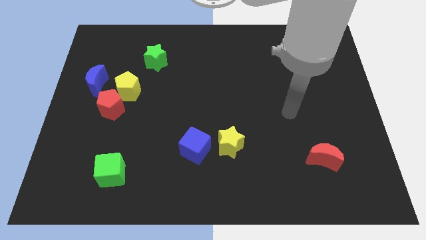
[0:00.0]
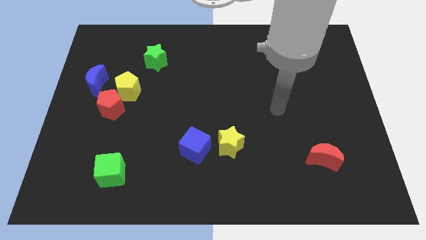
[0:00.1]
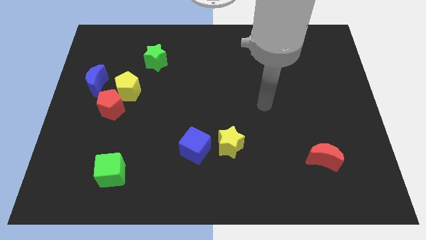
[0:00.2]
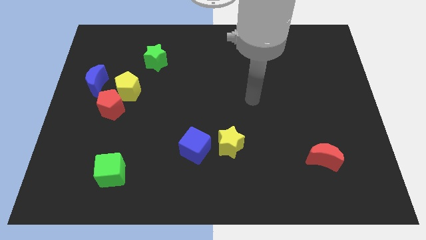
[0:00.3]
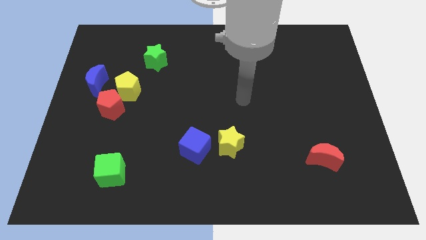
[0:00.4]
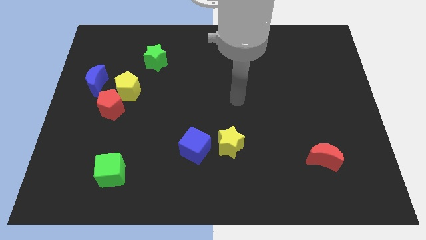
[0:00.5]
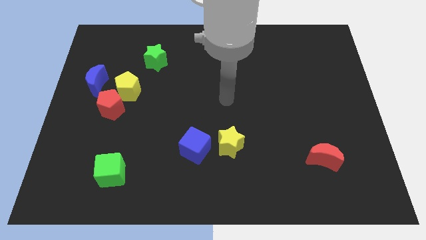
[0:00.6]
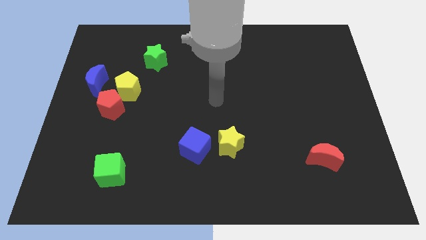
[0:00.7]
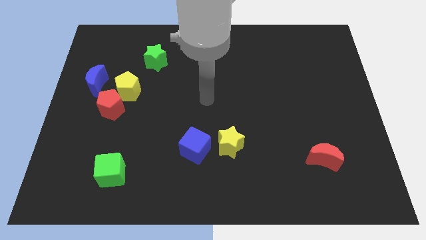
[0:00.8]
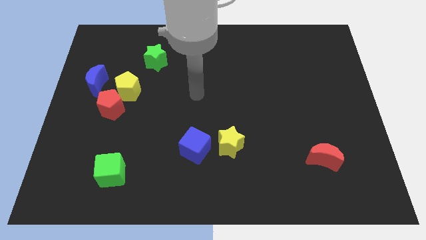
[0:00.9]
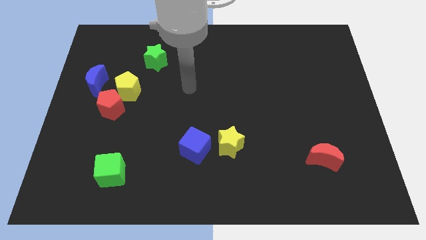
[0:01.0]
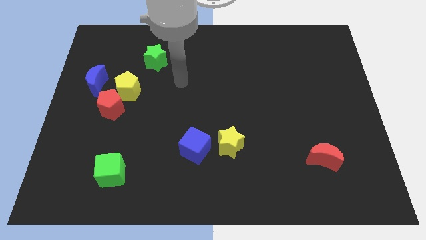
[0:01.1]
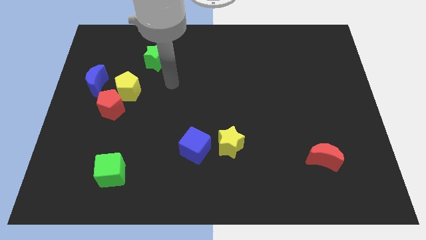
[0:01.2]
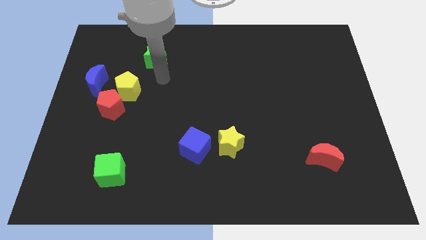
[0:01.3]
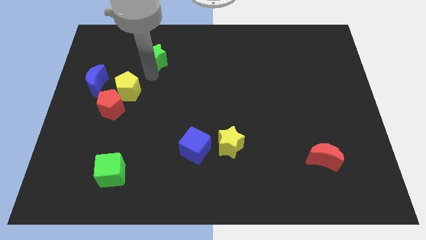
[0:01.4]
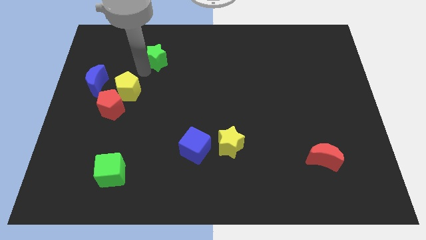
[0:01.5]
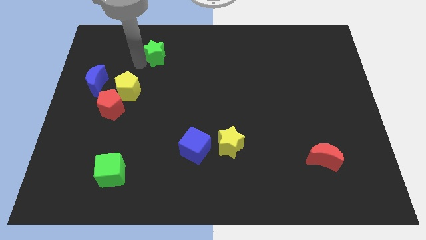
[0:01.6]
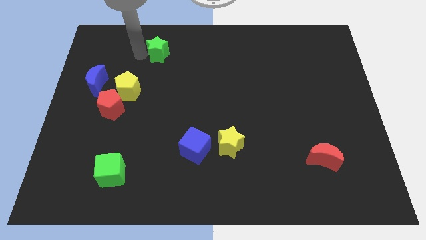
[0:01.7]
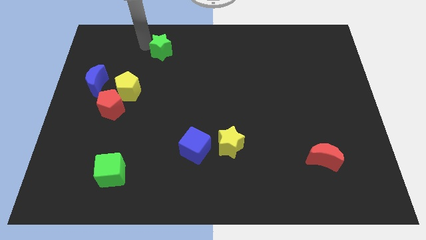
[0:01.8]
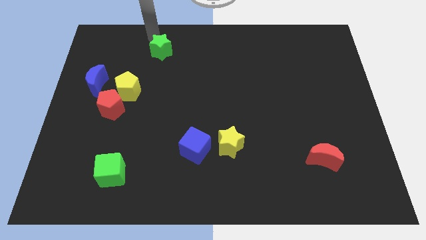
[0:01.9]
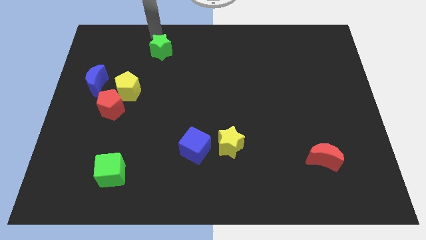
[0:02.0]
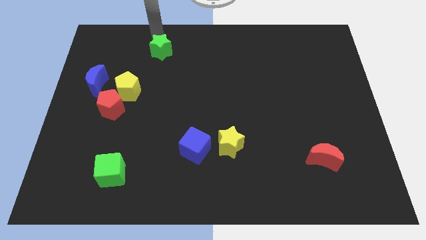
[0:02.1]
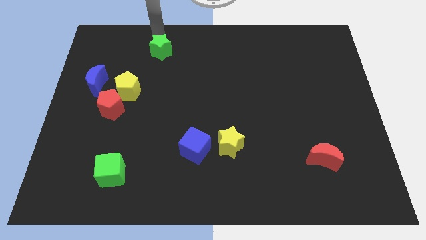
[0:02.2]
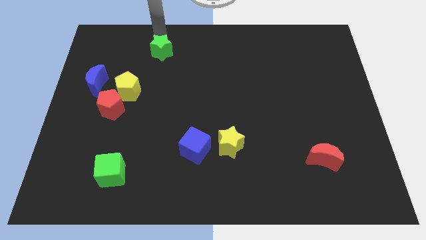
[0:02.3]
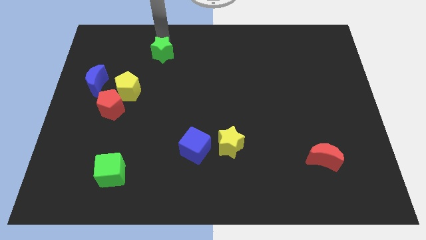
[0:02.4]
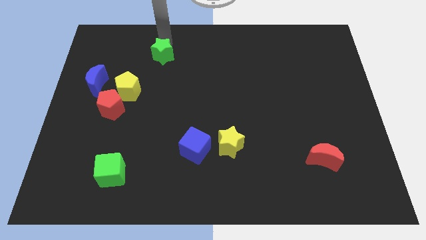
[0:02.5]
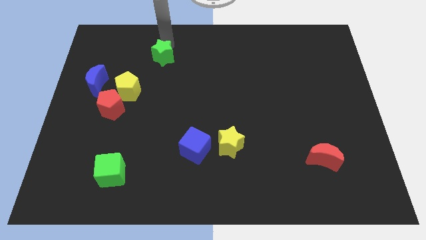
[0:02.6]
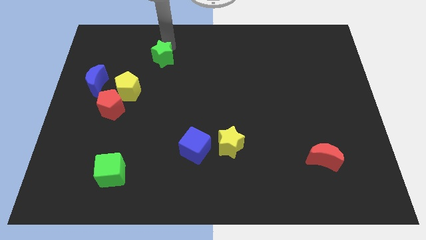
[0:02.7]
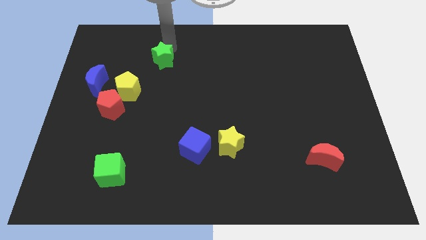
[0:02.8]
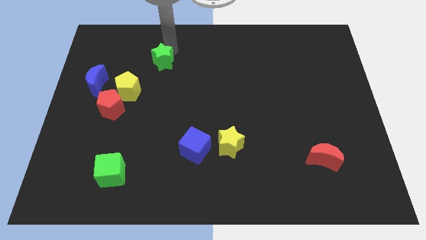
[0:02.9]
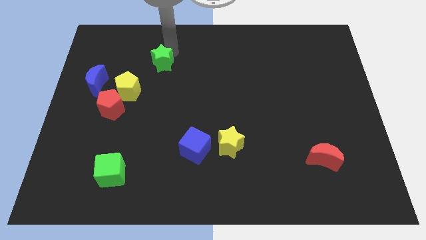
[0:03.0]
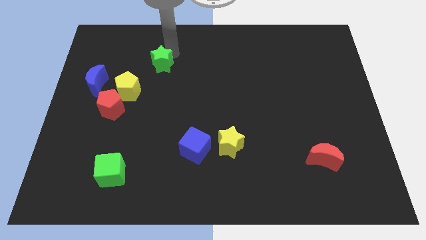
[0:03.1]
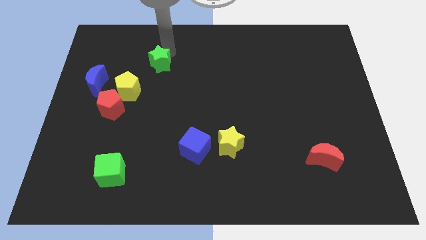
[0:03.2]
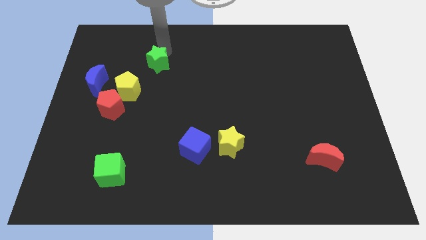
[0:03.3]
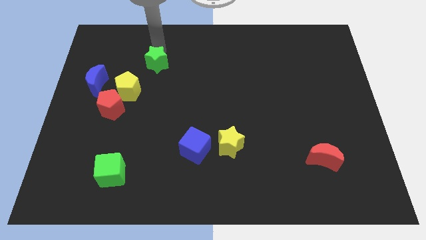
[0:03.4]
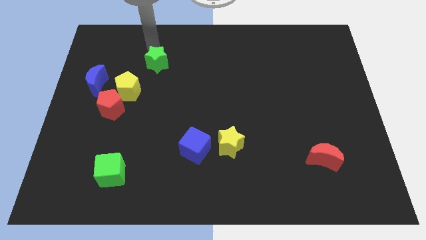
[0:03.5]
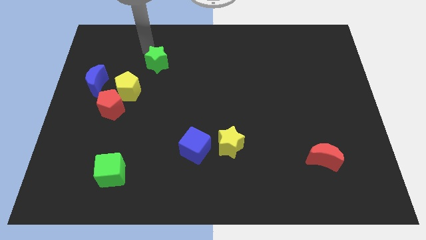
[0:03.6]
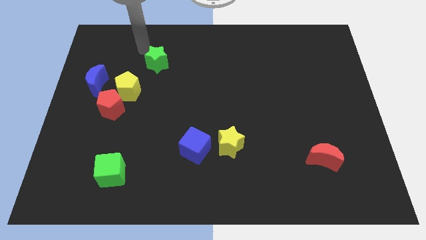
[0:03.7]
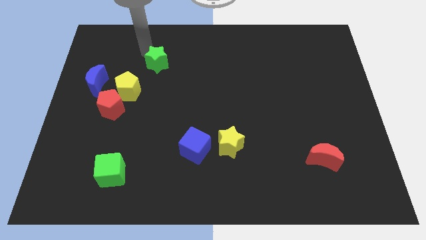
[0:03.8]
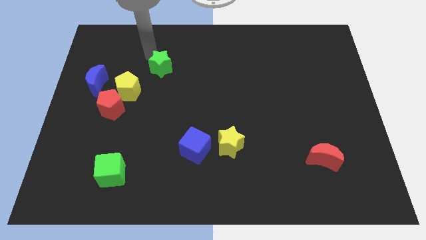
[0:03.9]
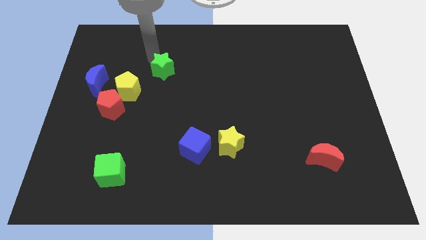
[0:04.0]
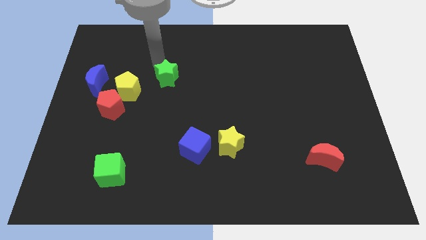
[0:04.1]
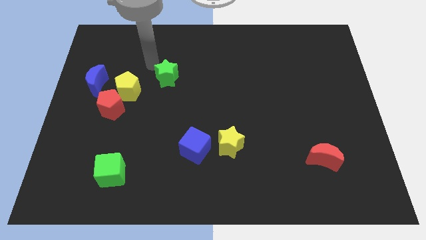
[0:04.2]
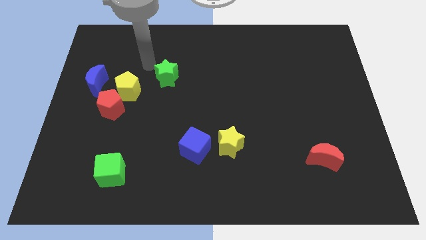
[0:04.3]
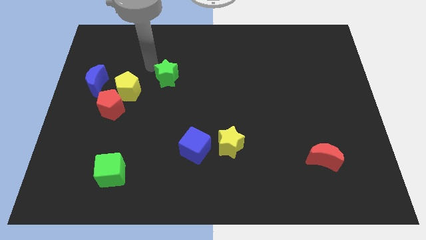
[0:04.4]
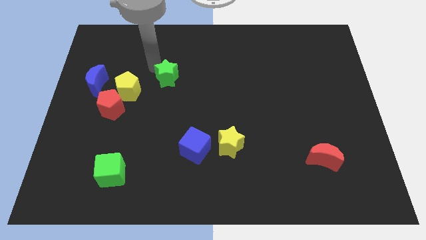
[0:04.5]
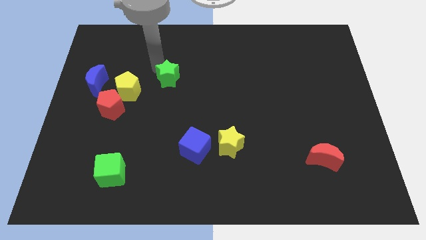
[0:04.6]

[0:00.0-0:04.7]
move the green star diagonally downwards and to the right slightly

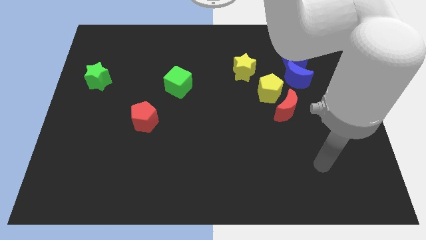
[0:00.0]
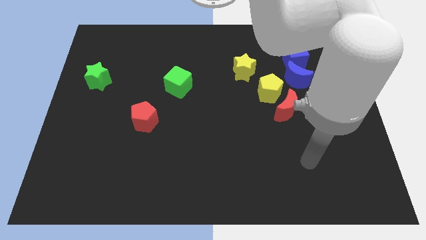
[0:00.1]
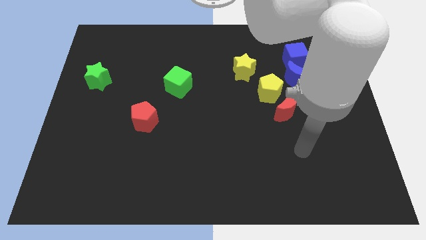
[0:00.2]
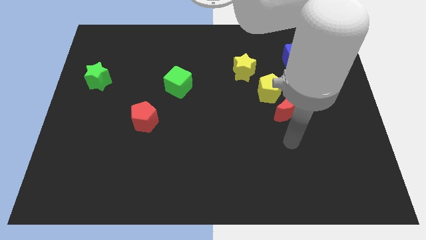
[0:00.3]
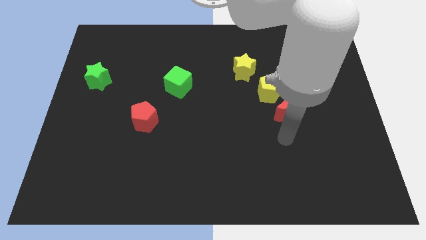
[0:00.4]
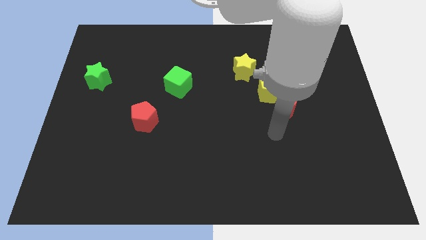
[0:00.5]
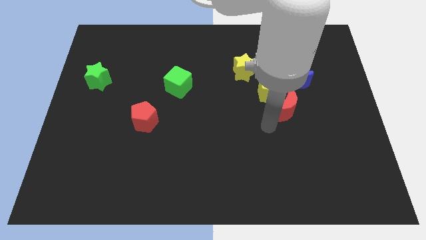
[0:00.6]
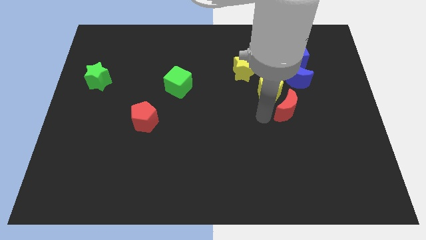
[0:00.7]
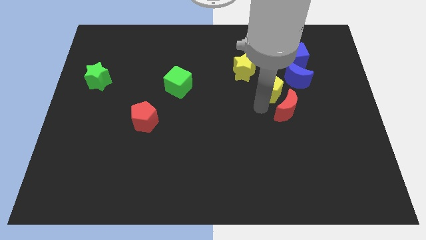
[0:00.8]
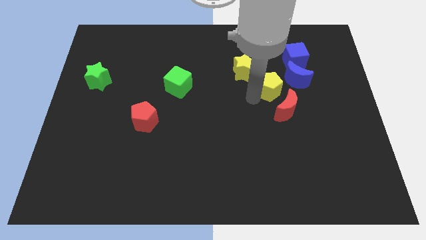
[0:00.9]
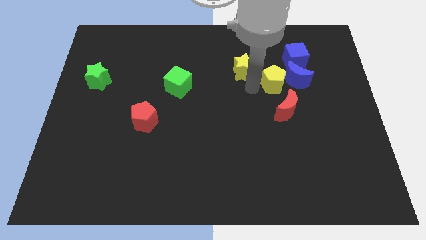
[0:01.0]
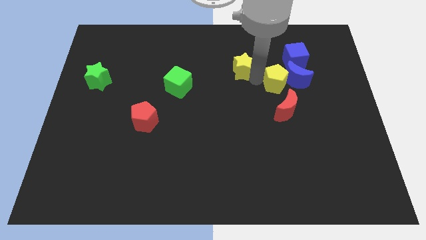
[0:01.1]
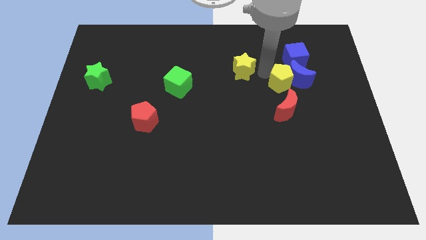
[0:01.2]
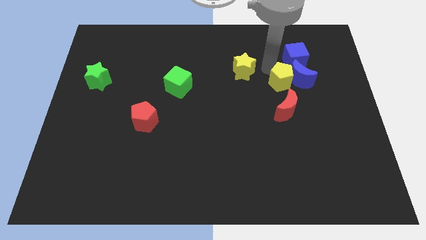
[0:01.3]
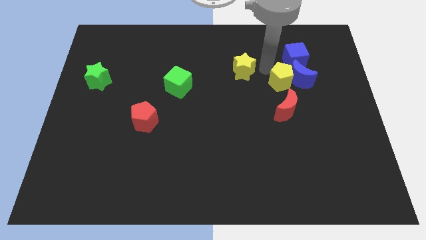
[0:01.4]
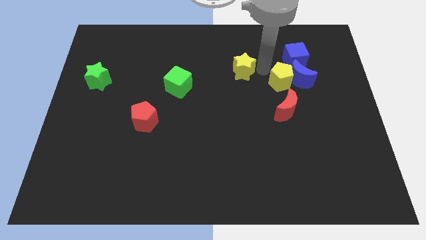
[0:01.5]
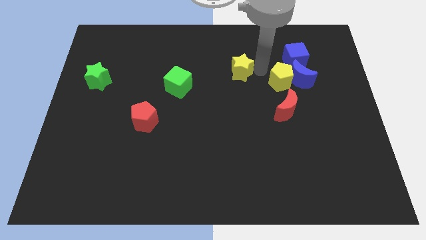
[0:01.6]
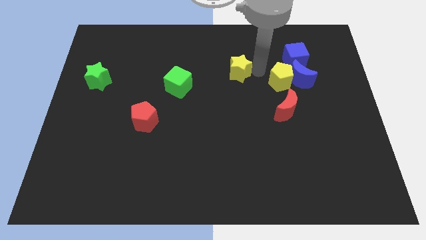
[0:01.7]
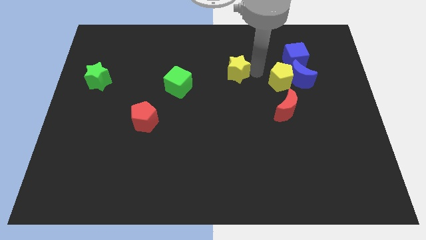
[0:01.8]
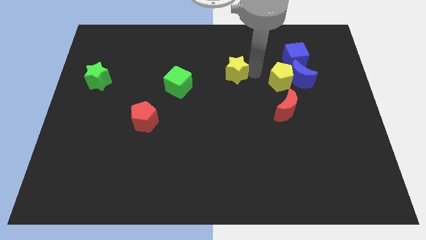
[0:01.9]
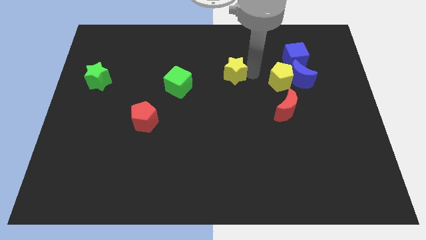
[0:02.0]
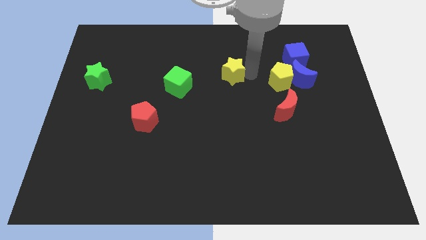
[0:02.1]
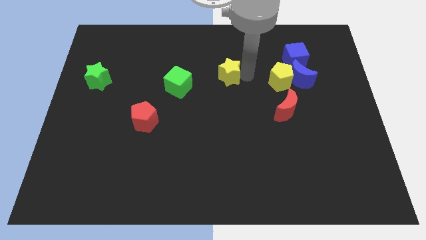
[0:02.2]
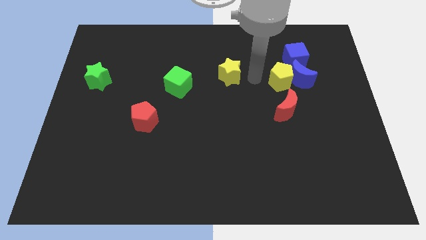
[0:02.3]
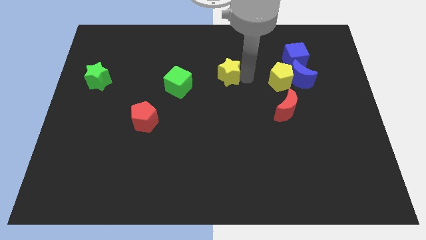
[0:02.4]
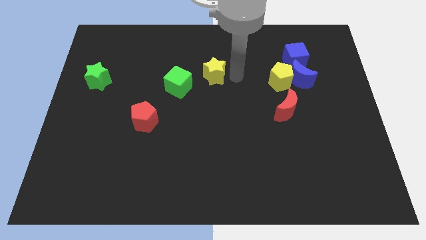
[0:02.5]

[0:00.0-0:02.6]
push the yellow star a little to the left

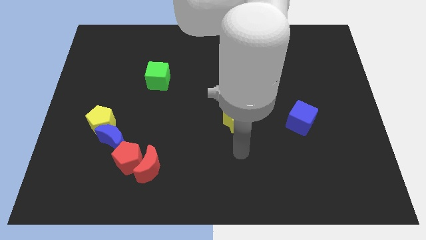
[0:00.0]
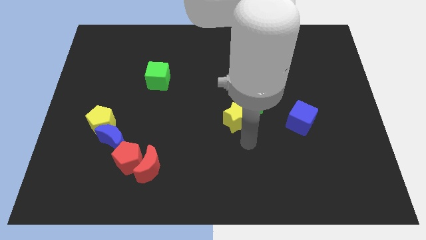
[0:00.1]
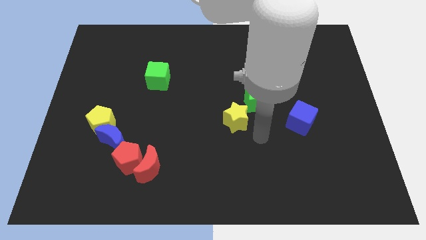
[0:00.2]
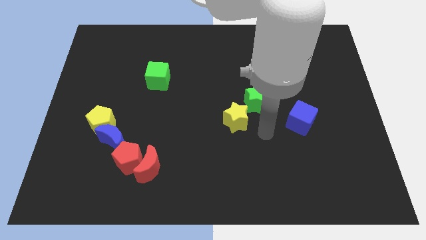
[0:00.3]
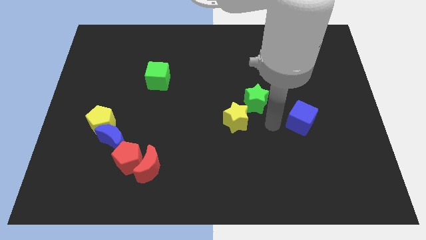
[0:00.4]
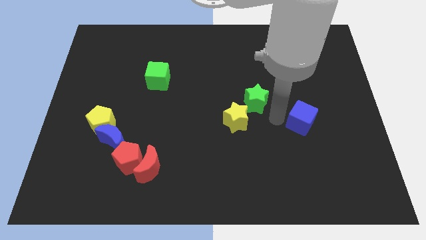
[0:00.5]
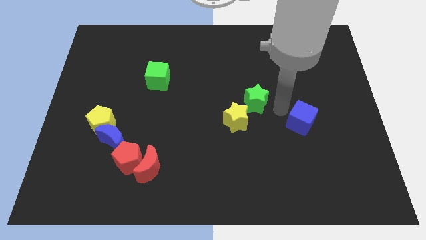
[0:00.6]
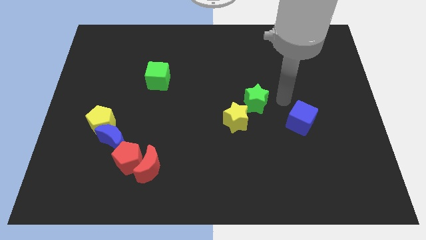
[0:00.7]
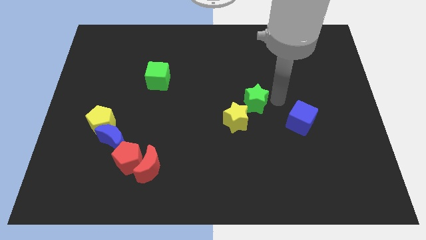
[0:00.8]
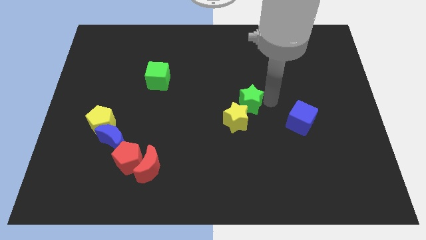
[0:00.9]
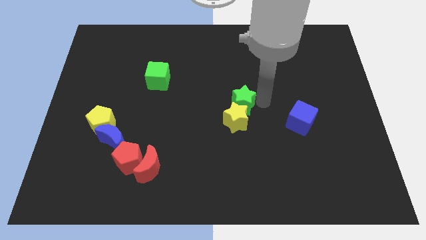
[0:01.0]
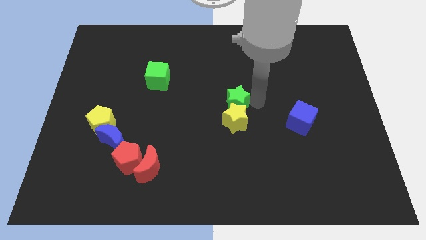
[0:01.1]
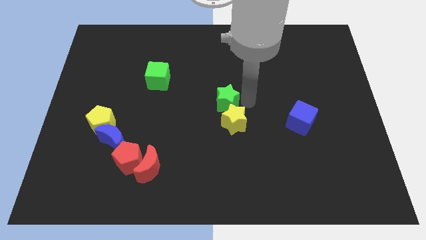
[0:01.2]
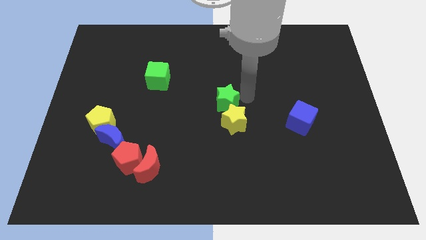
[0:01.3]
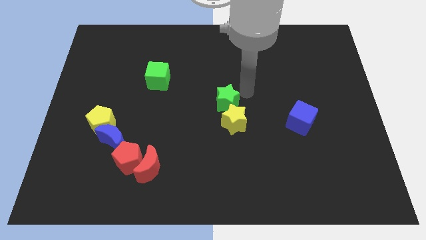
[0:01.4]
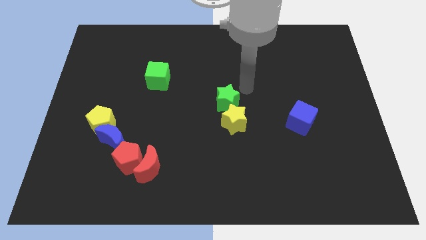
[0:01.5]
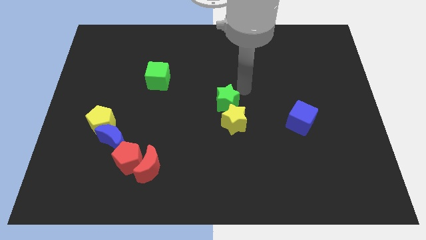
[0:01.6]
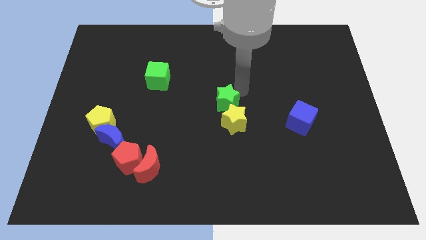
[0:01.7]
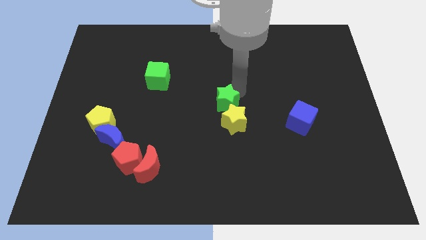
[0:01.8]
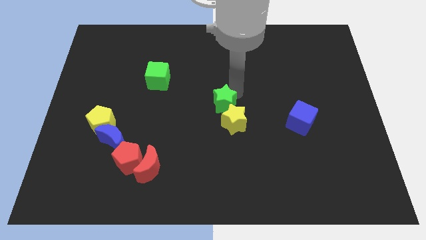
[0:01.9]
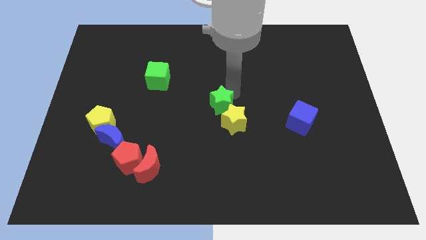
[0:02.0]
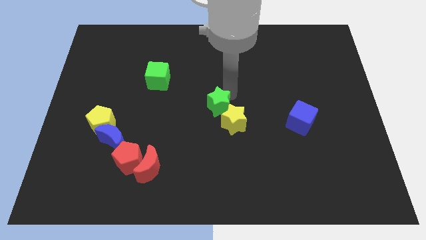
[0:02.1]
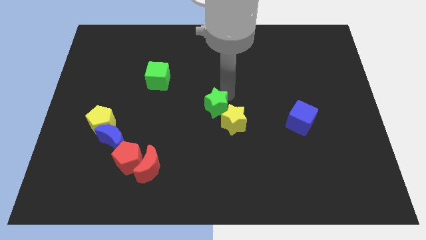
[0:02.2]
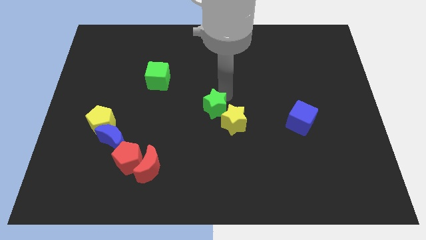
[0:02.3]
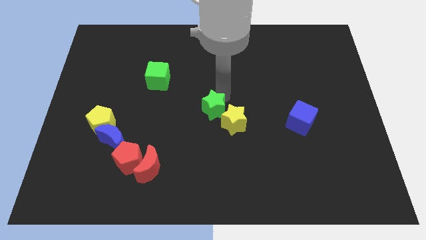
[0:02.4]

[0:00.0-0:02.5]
slightly push the green star downwards and then left
